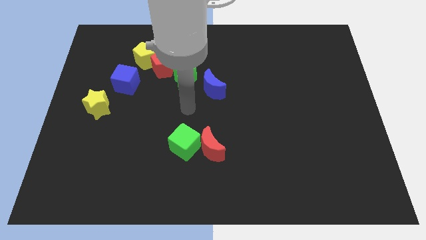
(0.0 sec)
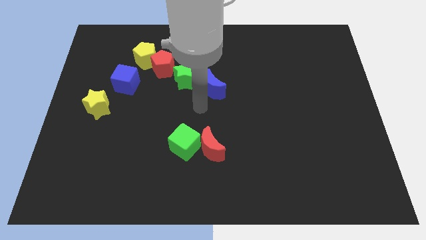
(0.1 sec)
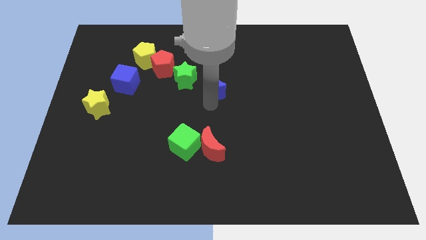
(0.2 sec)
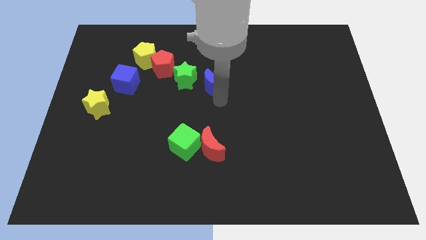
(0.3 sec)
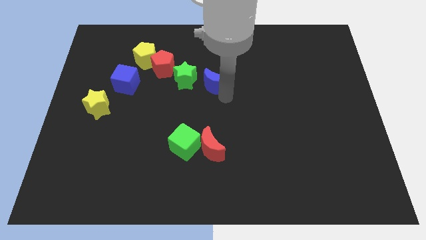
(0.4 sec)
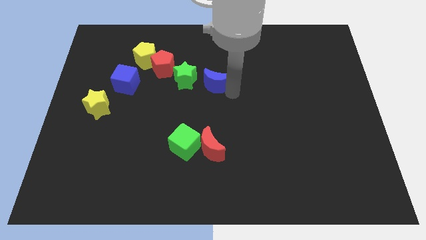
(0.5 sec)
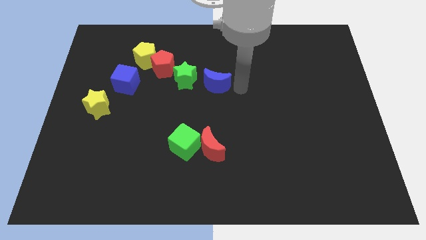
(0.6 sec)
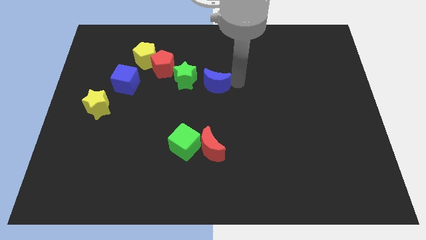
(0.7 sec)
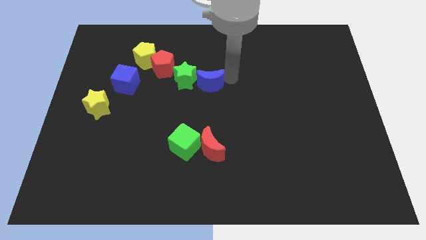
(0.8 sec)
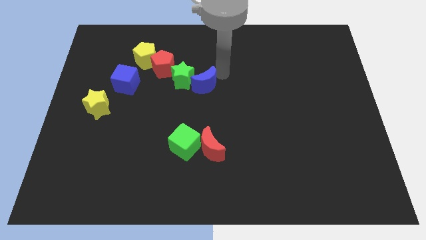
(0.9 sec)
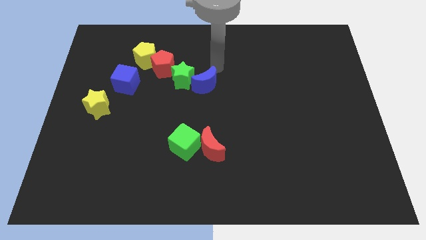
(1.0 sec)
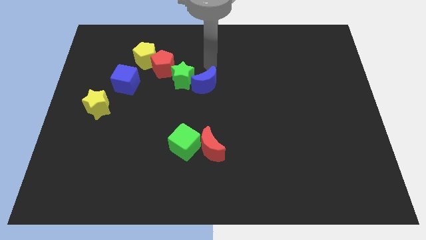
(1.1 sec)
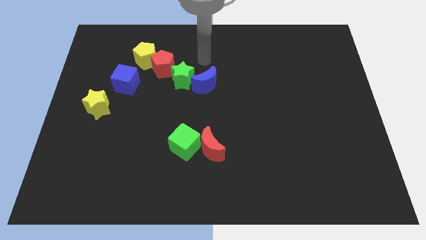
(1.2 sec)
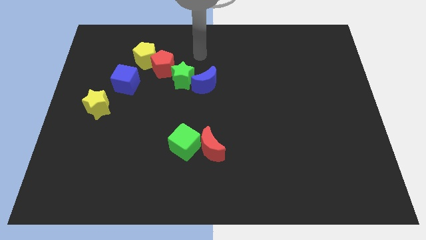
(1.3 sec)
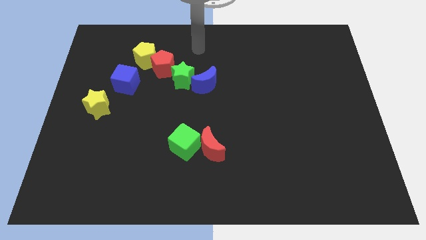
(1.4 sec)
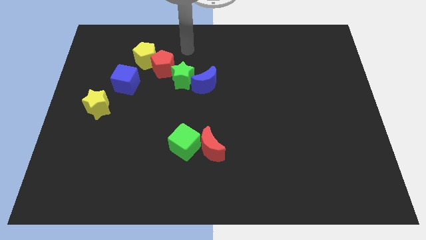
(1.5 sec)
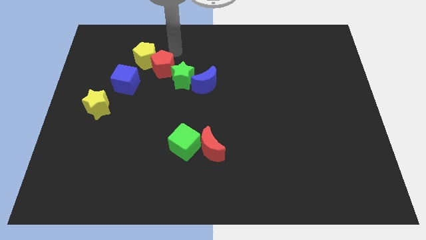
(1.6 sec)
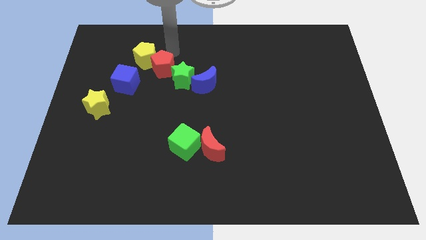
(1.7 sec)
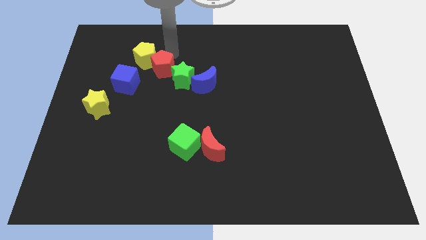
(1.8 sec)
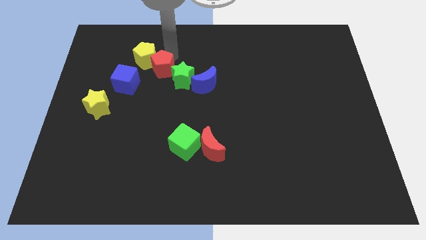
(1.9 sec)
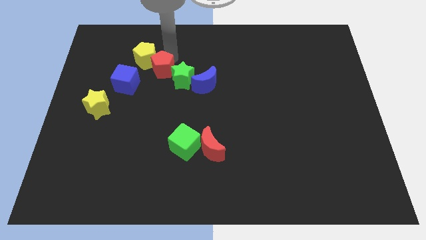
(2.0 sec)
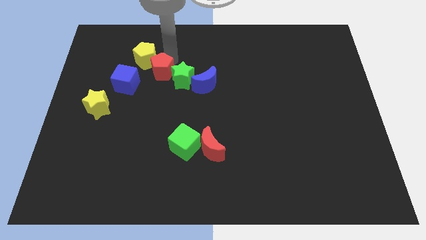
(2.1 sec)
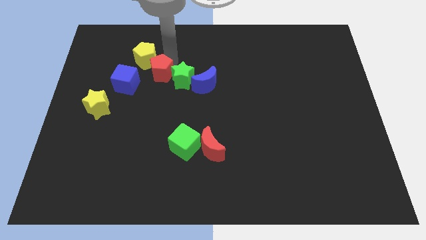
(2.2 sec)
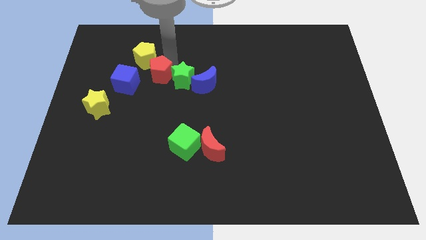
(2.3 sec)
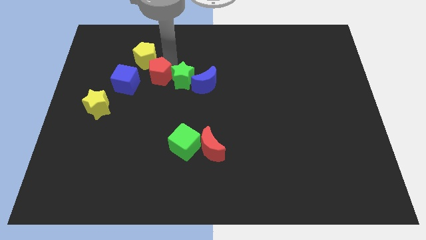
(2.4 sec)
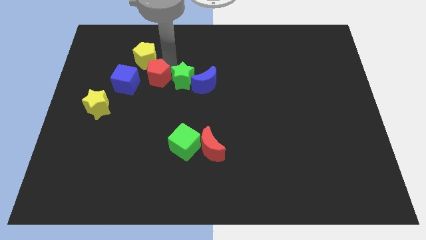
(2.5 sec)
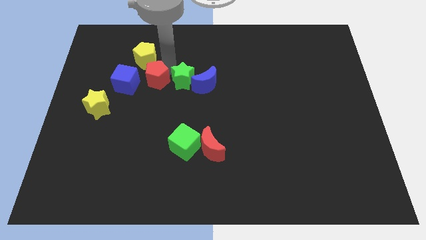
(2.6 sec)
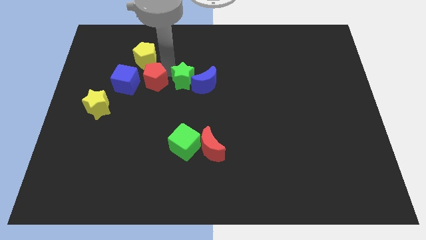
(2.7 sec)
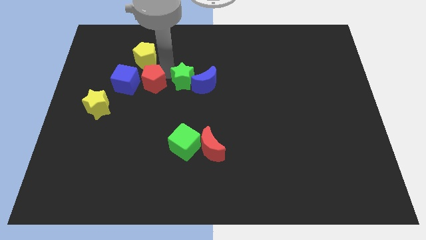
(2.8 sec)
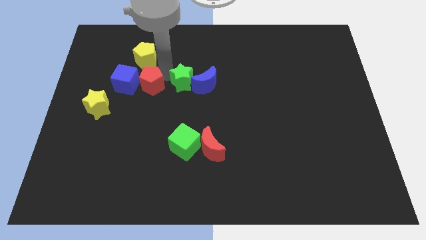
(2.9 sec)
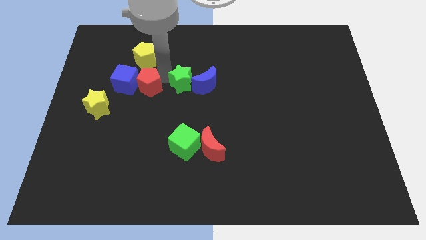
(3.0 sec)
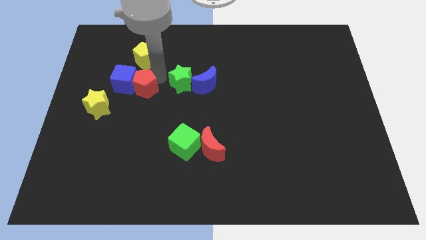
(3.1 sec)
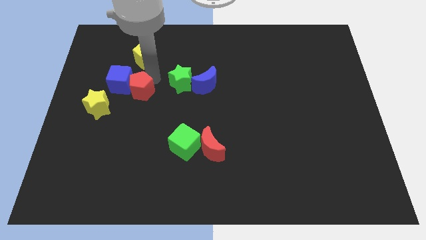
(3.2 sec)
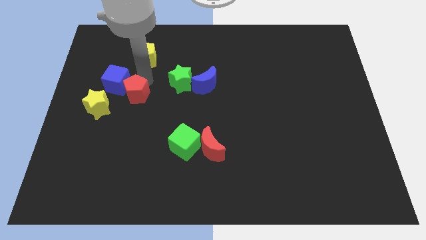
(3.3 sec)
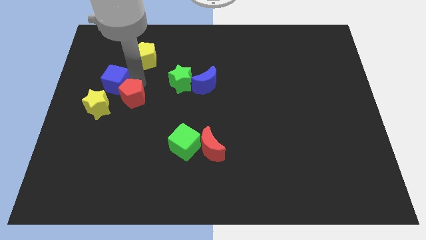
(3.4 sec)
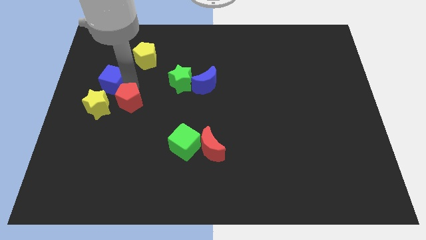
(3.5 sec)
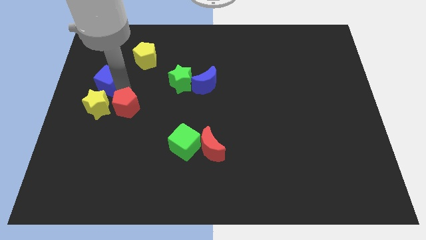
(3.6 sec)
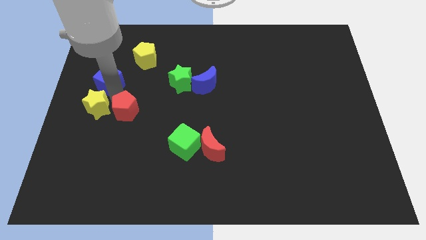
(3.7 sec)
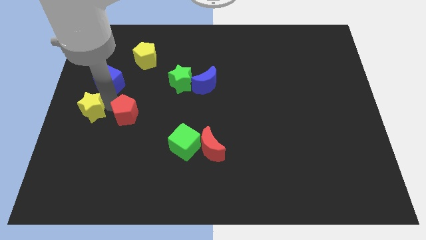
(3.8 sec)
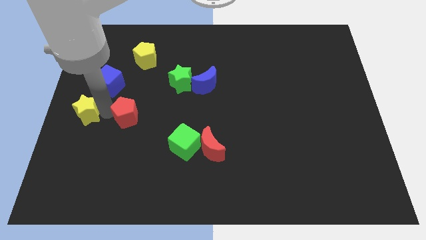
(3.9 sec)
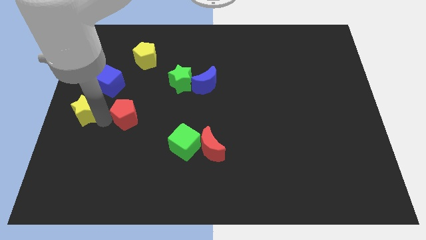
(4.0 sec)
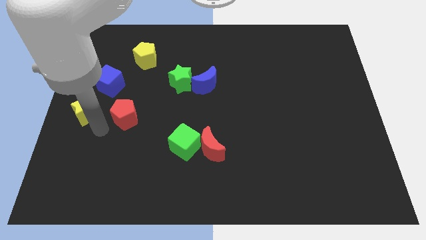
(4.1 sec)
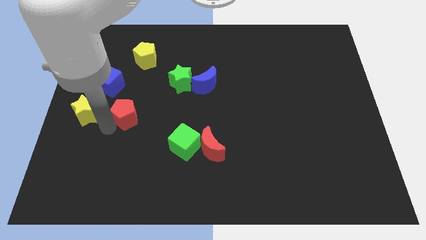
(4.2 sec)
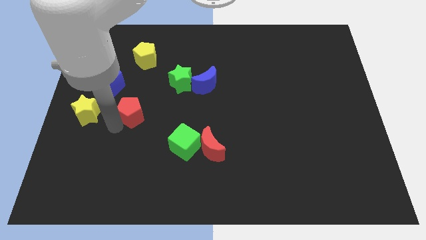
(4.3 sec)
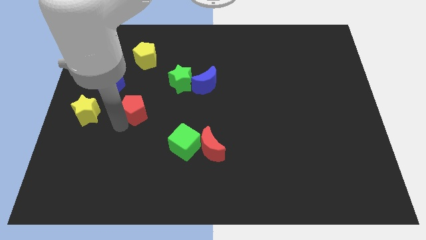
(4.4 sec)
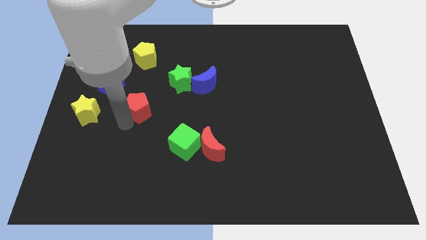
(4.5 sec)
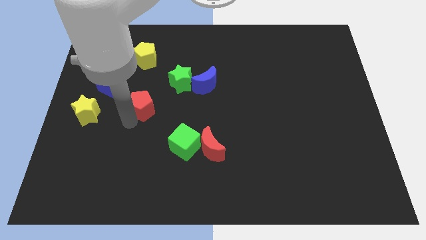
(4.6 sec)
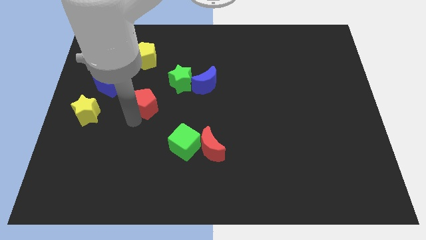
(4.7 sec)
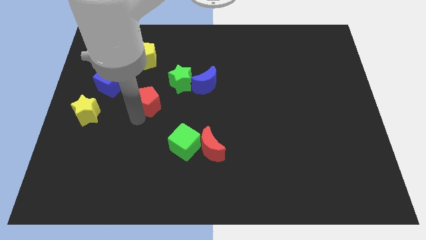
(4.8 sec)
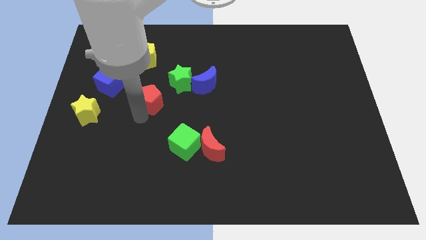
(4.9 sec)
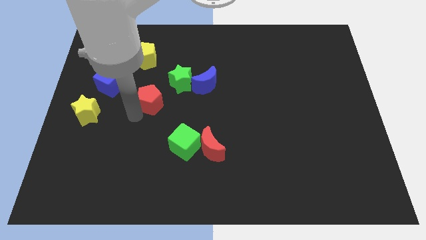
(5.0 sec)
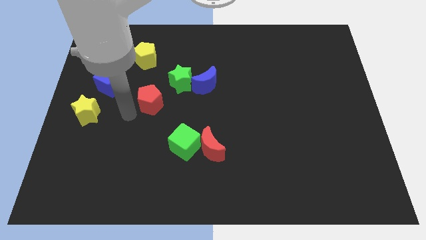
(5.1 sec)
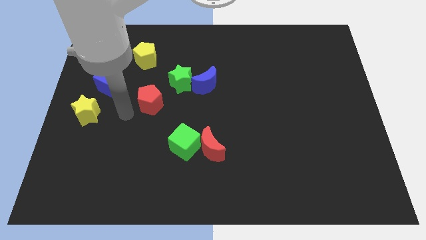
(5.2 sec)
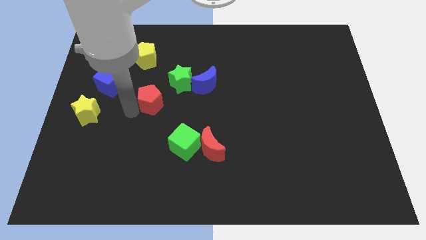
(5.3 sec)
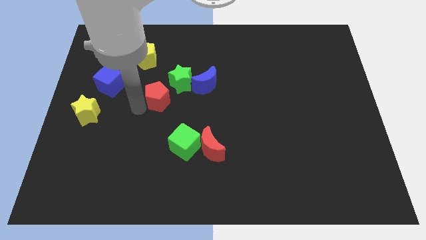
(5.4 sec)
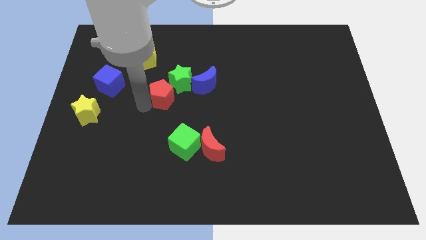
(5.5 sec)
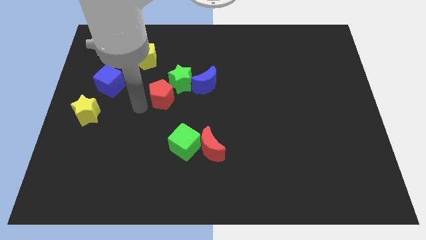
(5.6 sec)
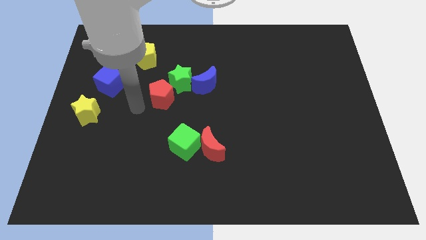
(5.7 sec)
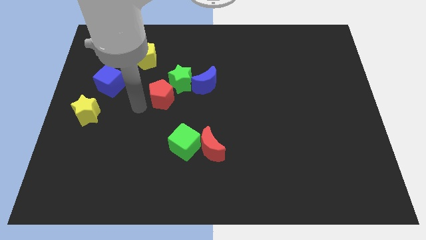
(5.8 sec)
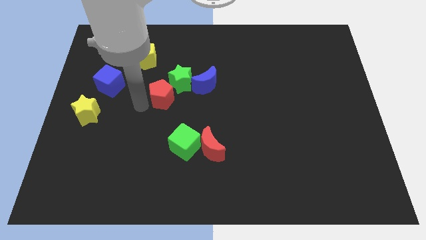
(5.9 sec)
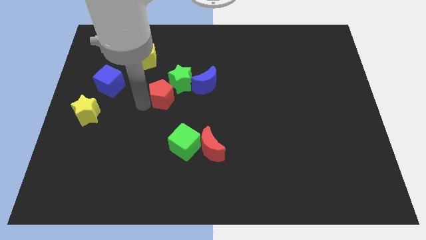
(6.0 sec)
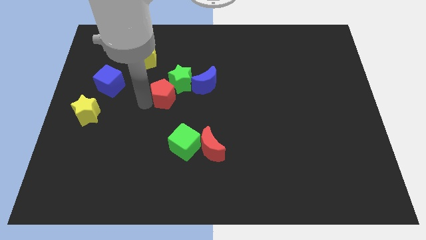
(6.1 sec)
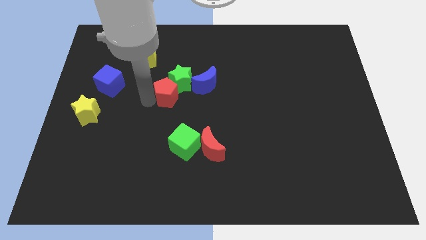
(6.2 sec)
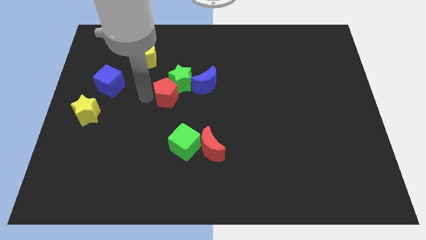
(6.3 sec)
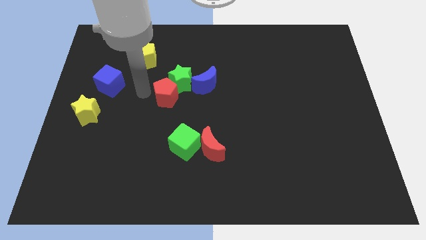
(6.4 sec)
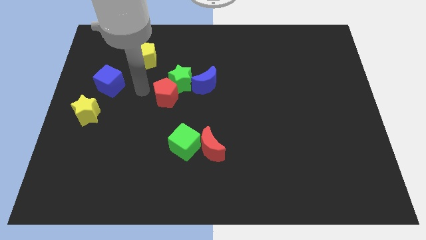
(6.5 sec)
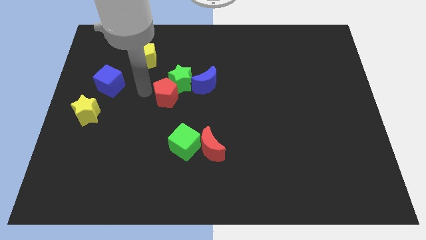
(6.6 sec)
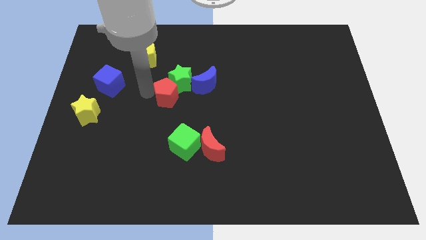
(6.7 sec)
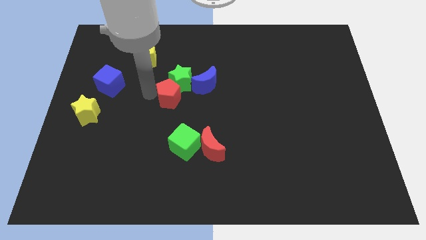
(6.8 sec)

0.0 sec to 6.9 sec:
push the red pentagon down and then to the right a little bit

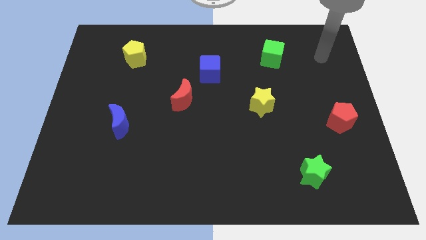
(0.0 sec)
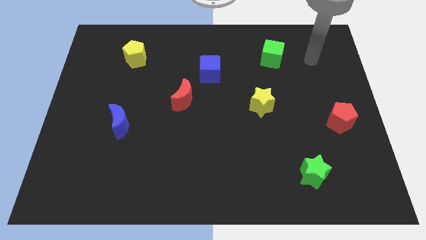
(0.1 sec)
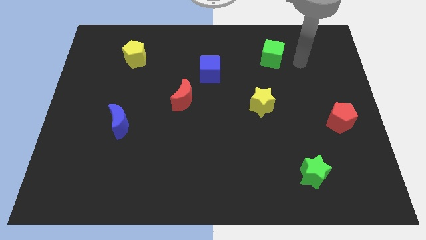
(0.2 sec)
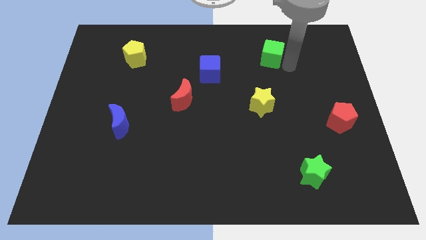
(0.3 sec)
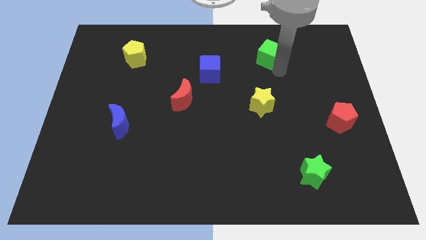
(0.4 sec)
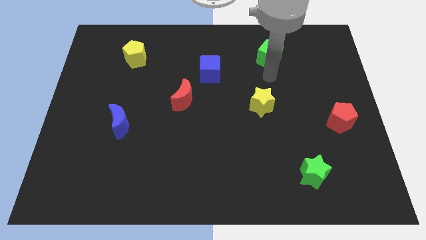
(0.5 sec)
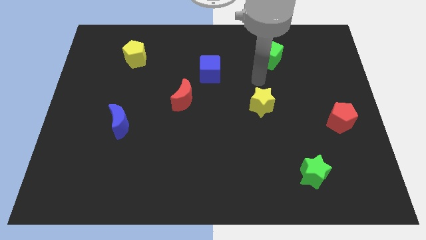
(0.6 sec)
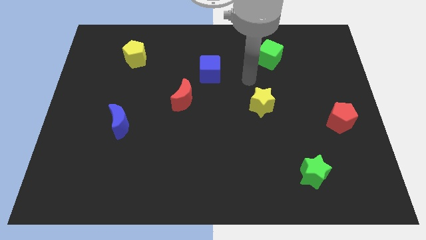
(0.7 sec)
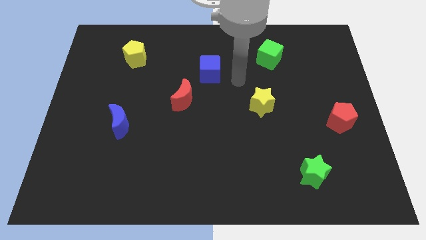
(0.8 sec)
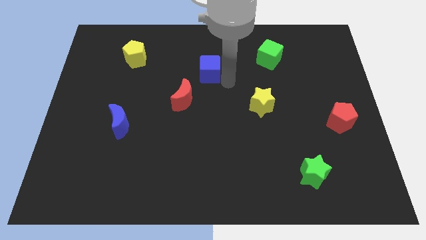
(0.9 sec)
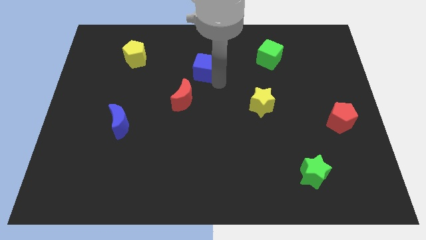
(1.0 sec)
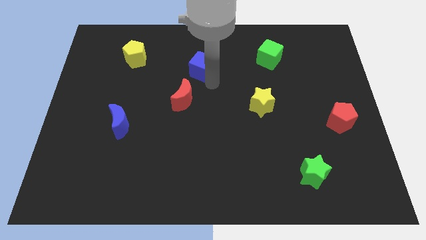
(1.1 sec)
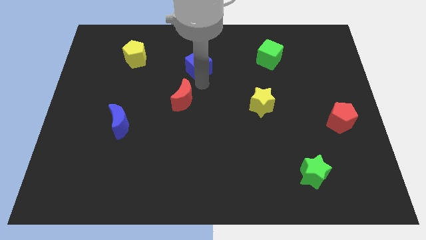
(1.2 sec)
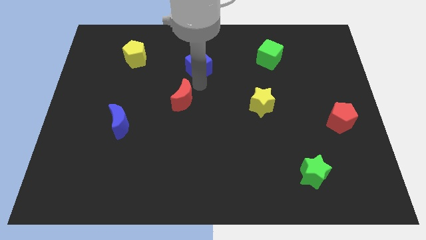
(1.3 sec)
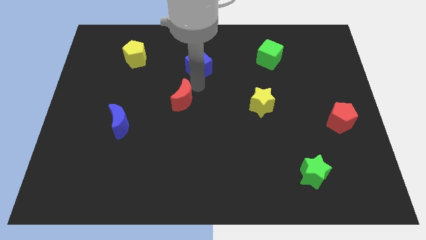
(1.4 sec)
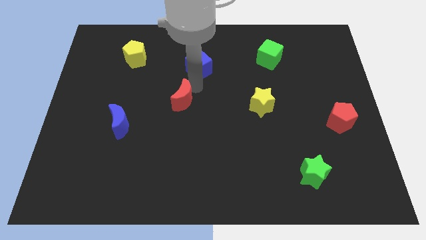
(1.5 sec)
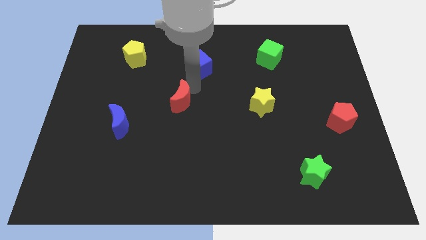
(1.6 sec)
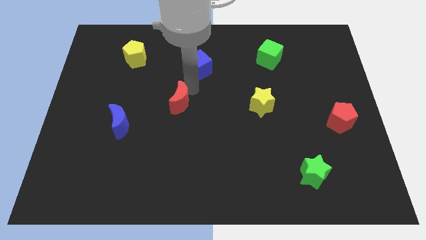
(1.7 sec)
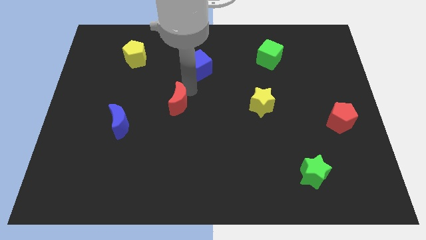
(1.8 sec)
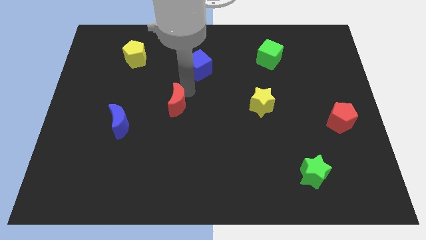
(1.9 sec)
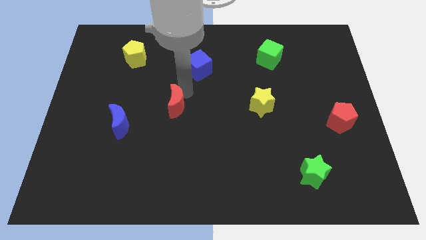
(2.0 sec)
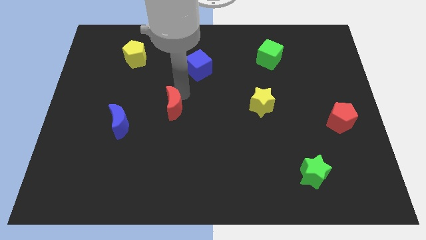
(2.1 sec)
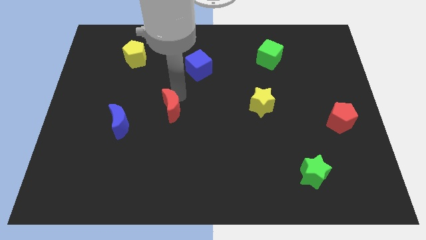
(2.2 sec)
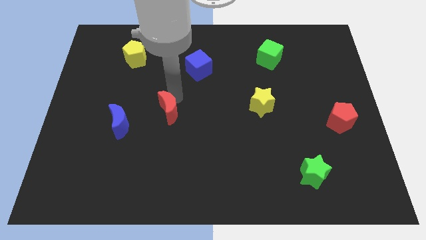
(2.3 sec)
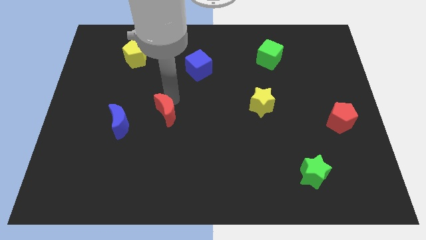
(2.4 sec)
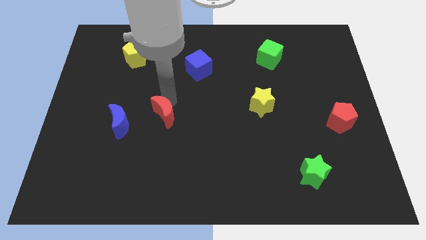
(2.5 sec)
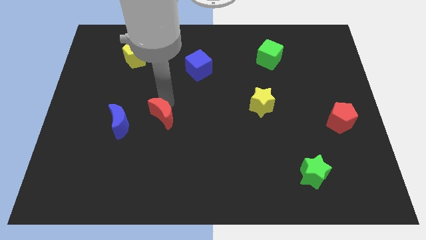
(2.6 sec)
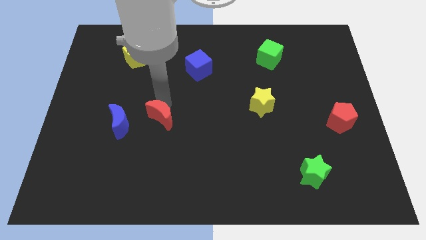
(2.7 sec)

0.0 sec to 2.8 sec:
push the red moon downwards and then to the left a little
